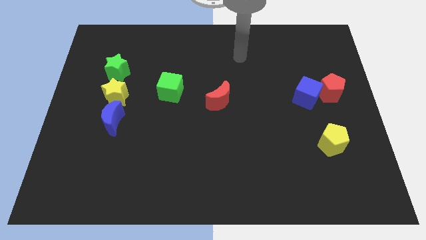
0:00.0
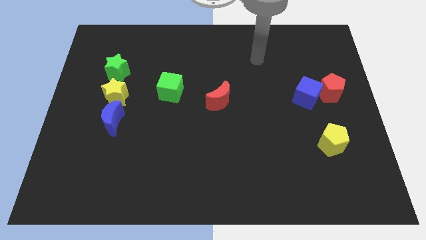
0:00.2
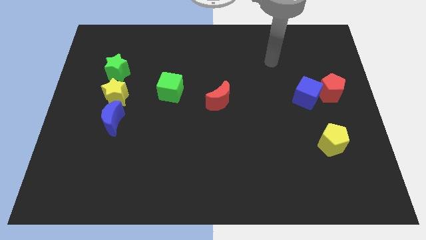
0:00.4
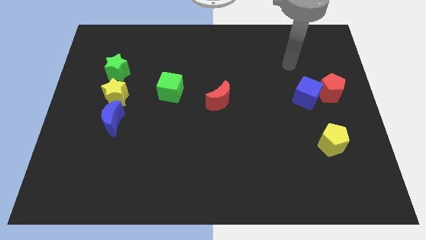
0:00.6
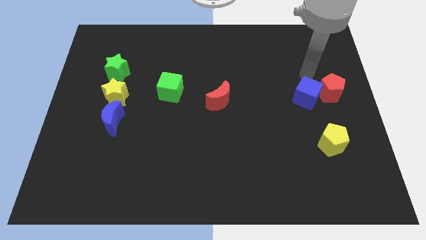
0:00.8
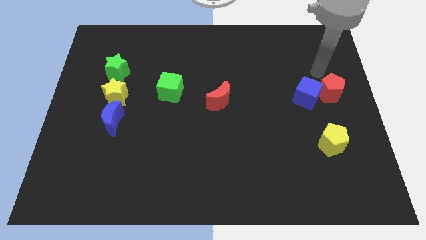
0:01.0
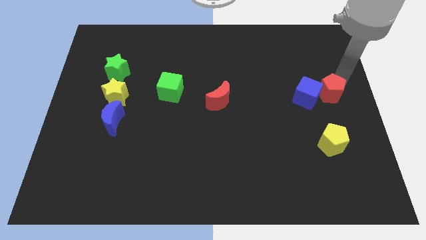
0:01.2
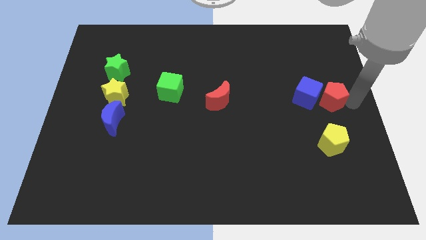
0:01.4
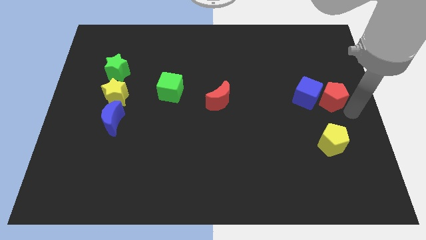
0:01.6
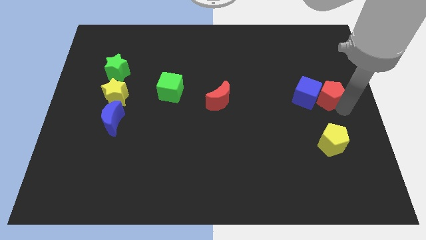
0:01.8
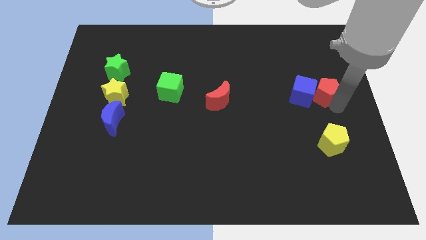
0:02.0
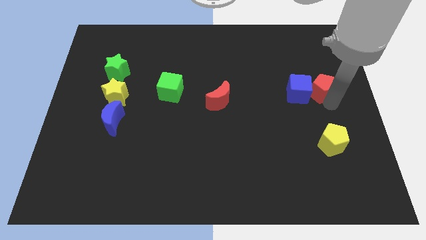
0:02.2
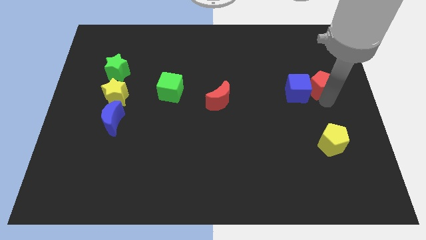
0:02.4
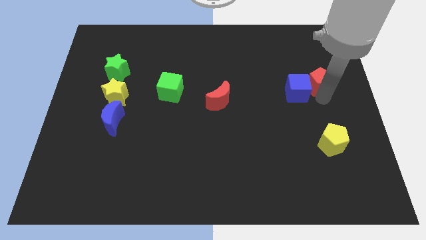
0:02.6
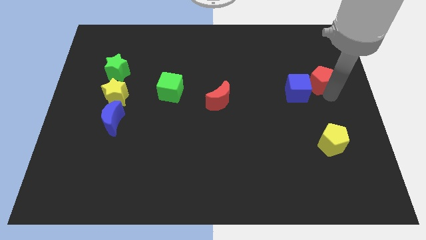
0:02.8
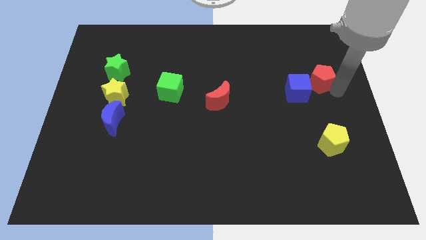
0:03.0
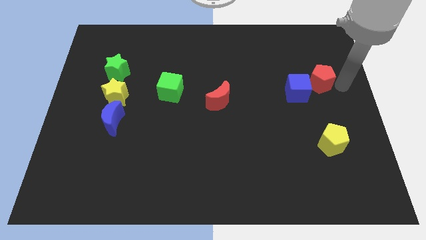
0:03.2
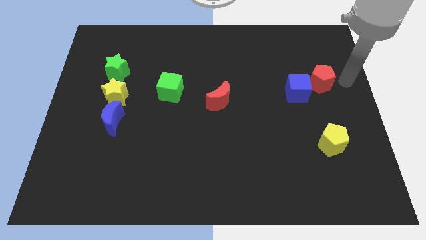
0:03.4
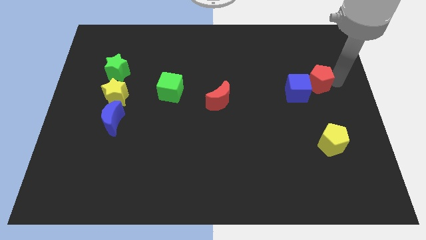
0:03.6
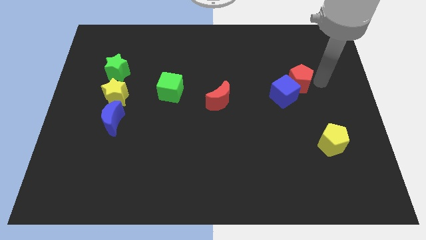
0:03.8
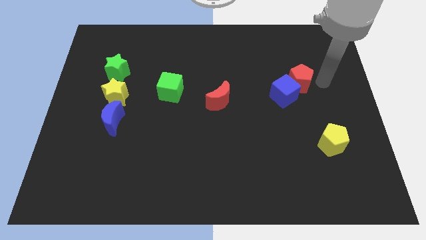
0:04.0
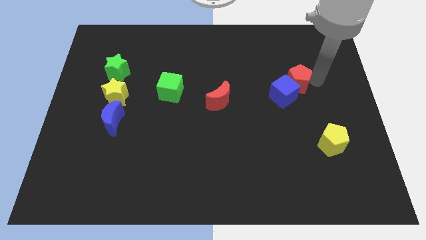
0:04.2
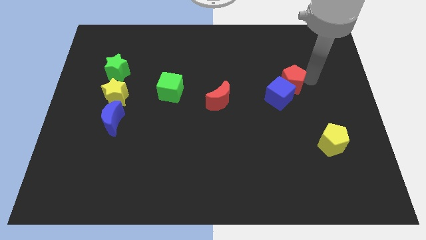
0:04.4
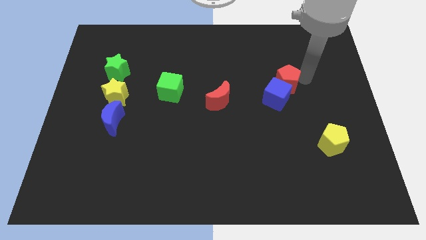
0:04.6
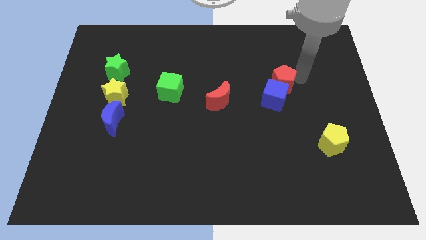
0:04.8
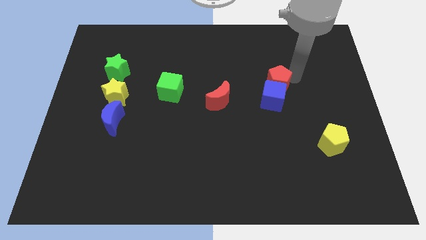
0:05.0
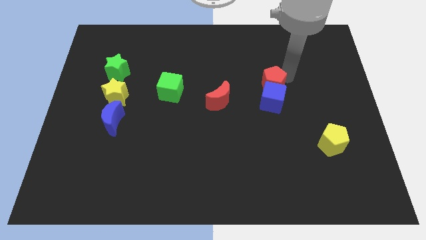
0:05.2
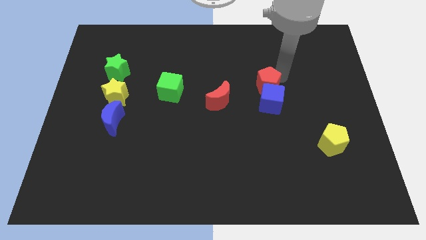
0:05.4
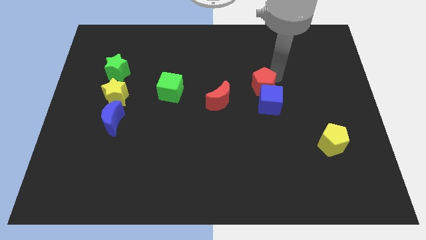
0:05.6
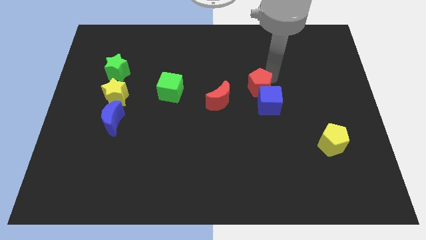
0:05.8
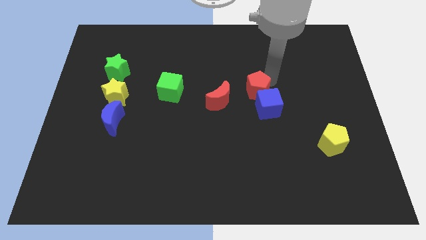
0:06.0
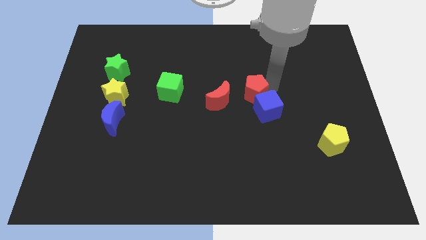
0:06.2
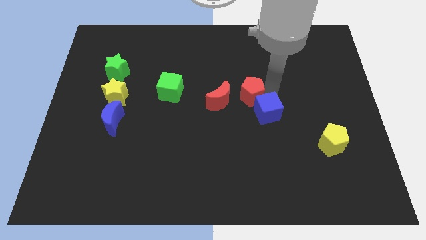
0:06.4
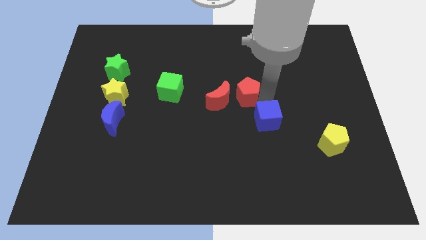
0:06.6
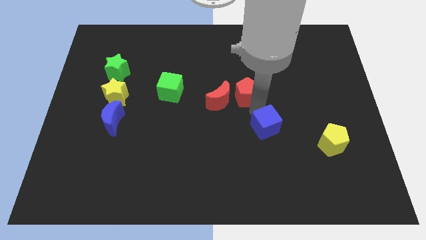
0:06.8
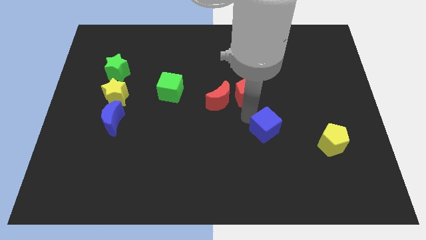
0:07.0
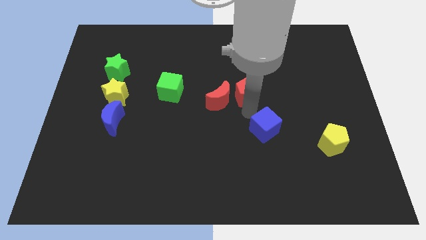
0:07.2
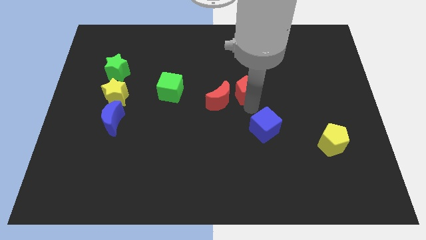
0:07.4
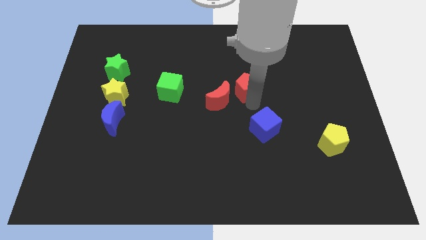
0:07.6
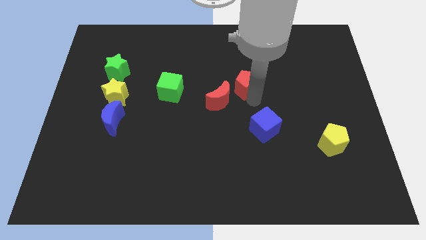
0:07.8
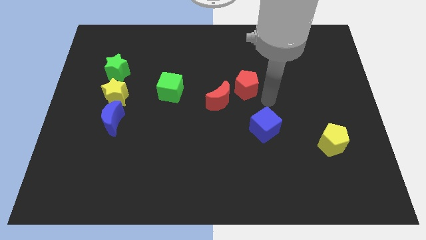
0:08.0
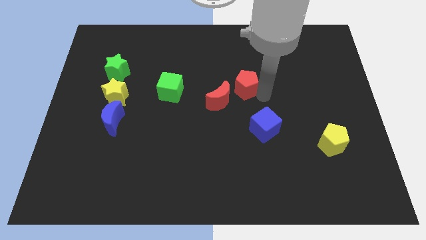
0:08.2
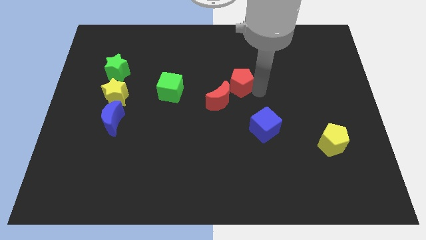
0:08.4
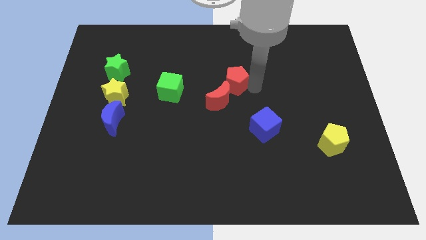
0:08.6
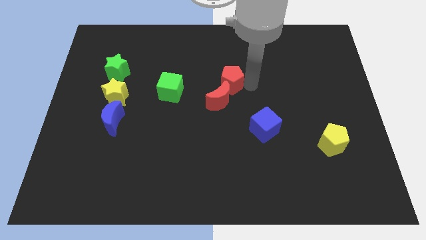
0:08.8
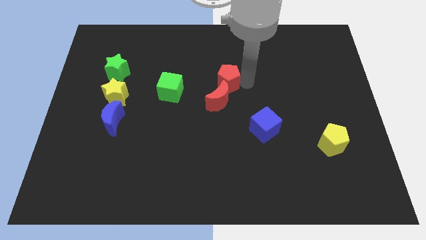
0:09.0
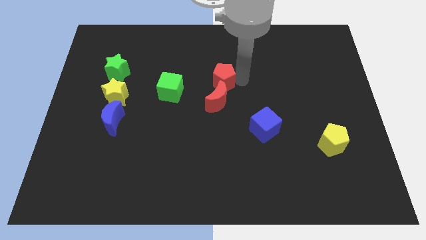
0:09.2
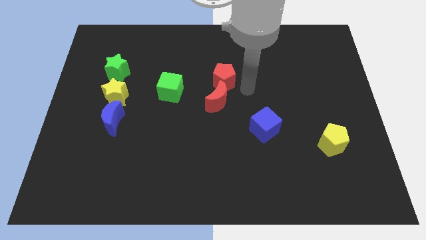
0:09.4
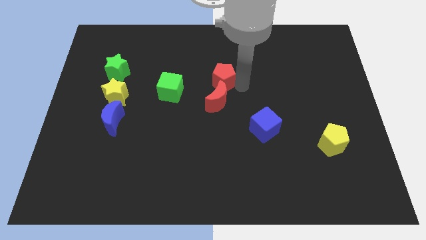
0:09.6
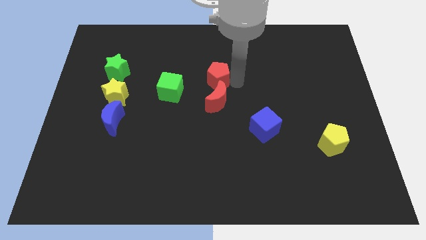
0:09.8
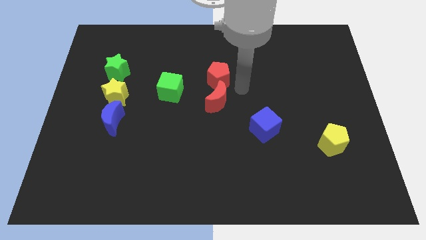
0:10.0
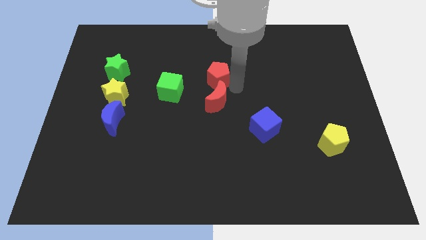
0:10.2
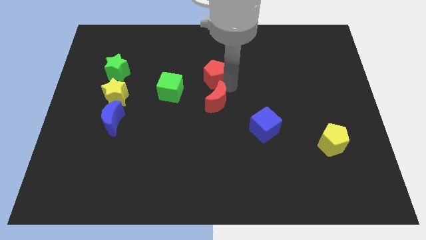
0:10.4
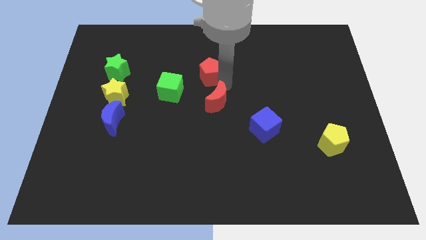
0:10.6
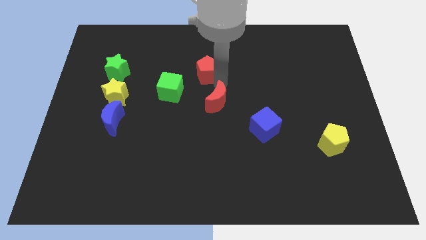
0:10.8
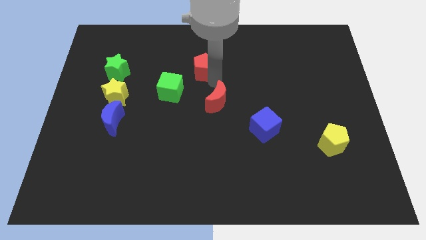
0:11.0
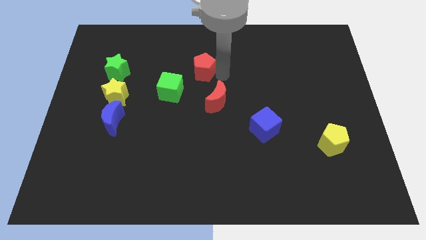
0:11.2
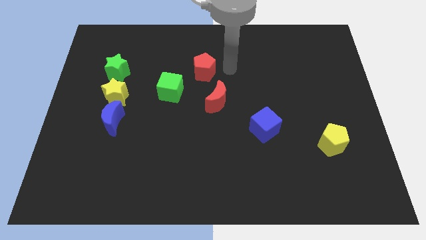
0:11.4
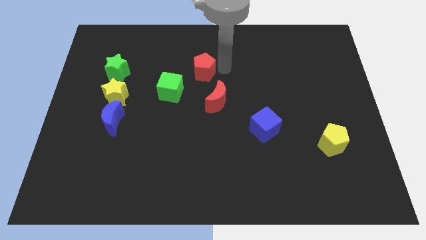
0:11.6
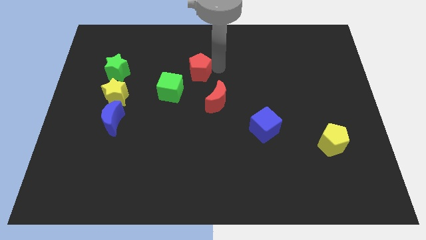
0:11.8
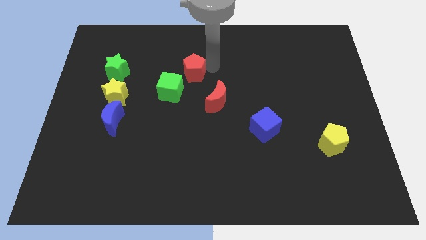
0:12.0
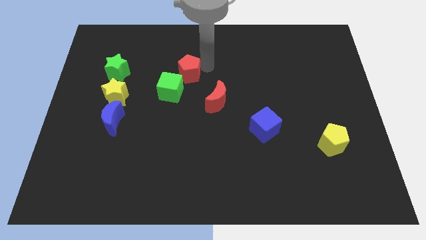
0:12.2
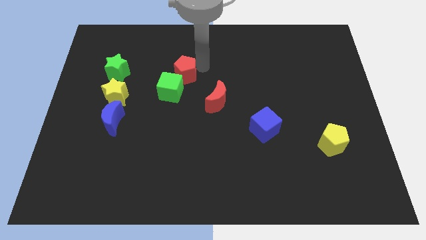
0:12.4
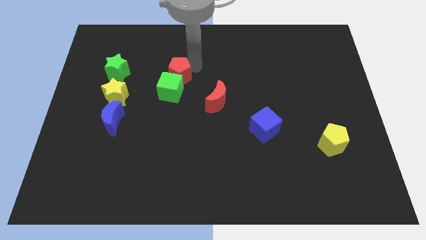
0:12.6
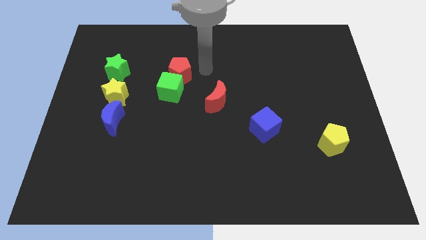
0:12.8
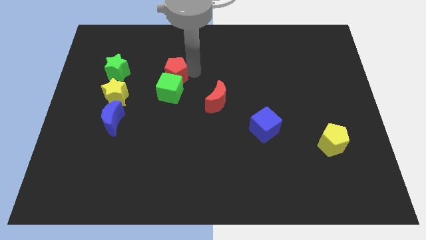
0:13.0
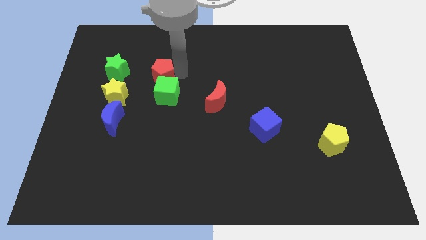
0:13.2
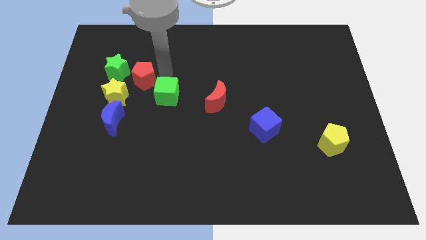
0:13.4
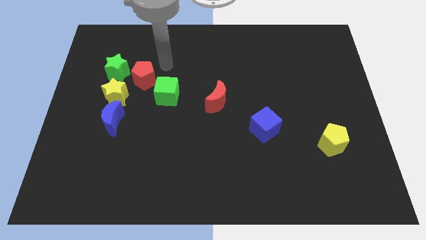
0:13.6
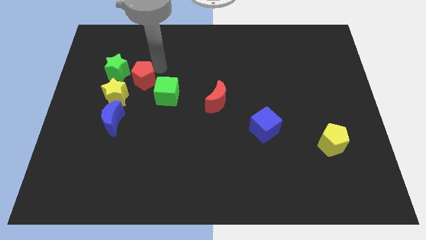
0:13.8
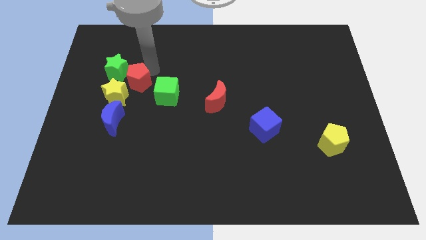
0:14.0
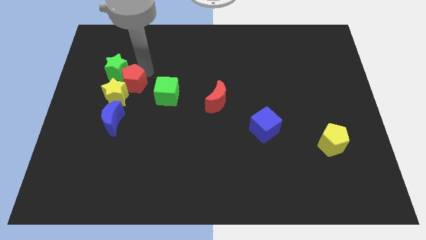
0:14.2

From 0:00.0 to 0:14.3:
slide the red pentagon towards the yellow star

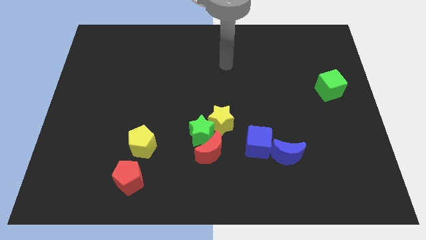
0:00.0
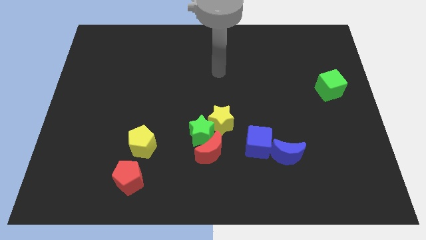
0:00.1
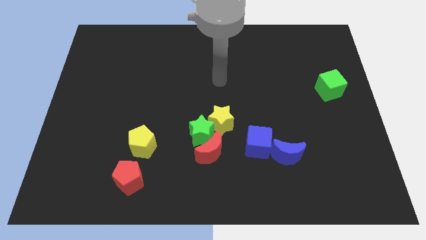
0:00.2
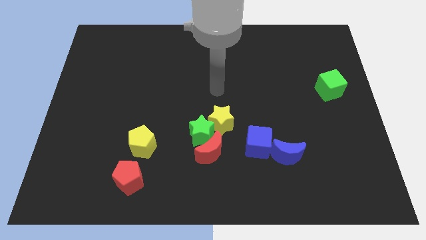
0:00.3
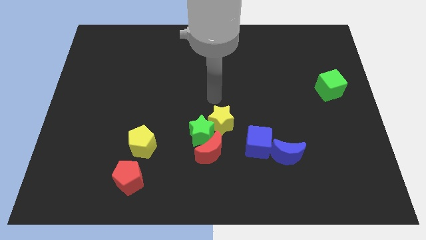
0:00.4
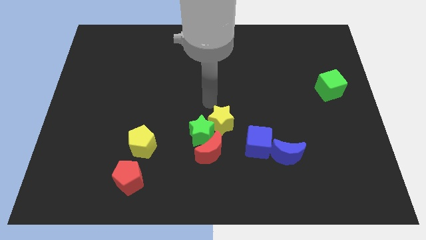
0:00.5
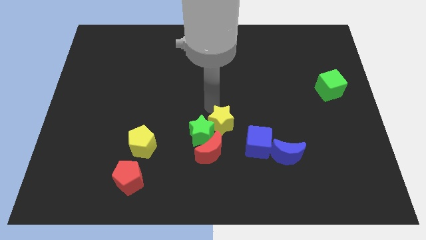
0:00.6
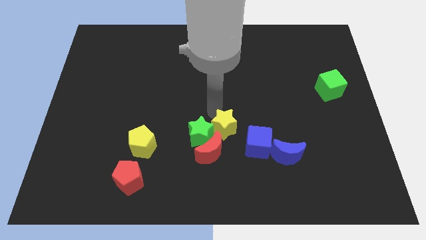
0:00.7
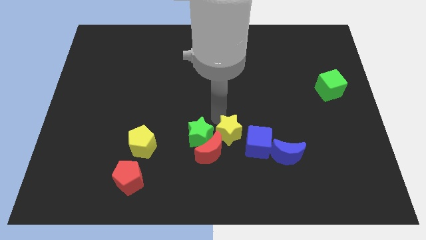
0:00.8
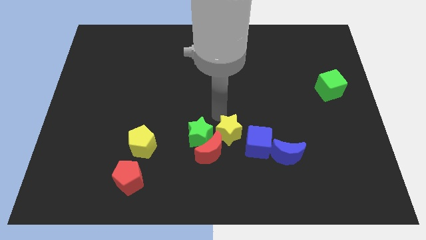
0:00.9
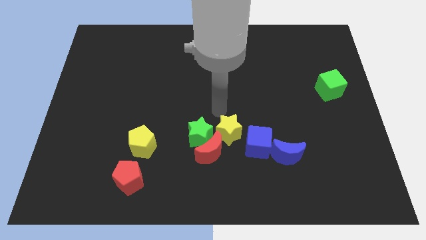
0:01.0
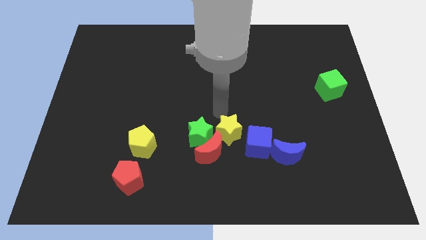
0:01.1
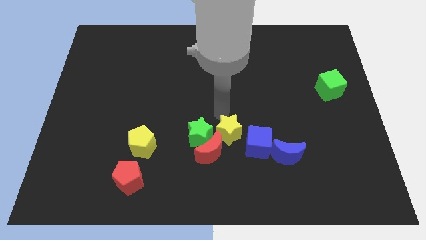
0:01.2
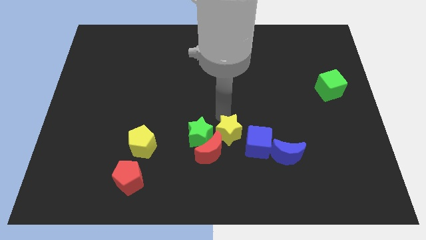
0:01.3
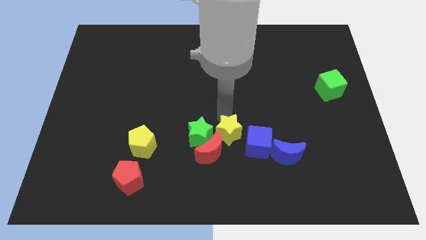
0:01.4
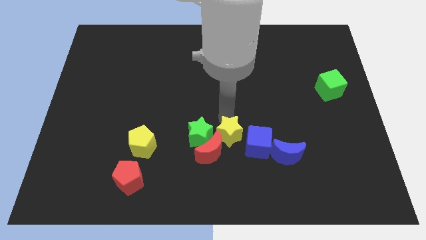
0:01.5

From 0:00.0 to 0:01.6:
move the yellow star towards the red moon
